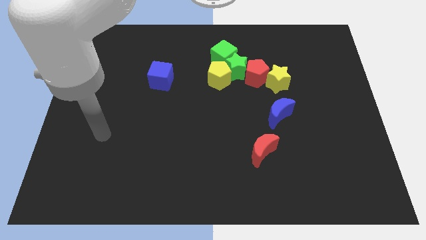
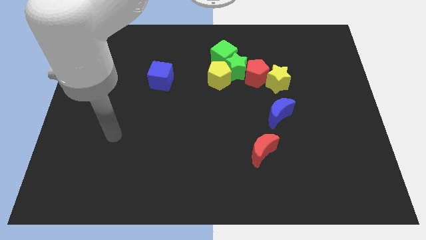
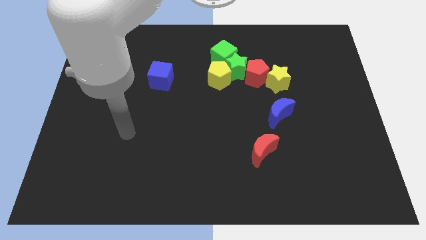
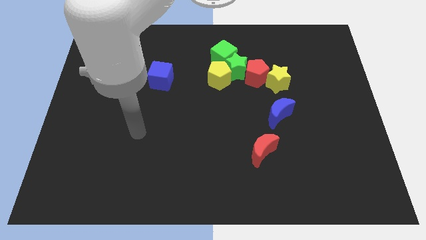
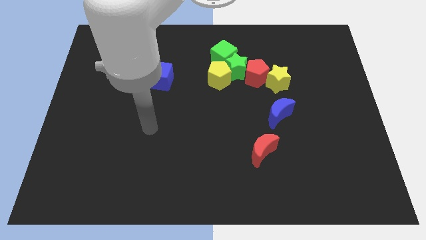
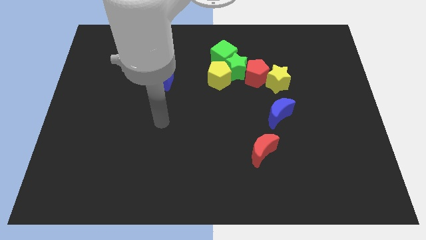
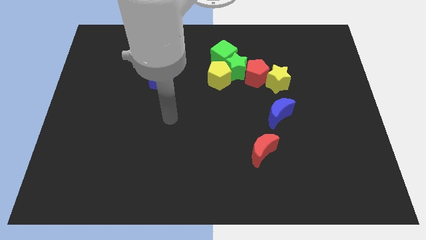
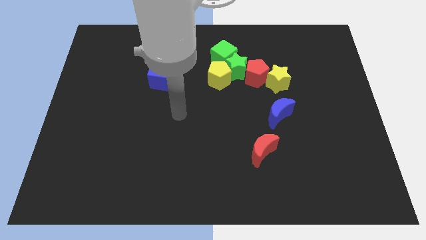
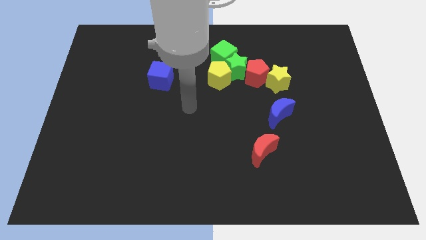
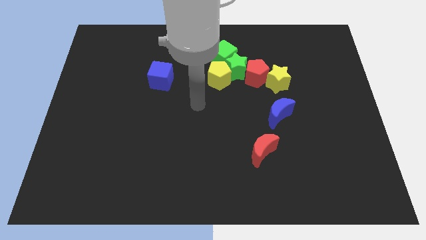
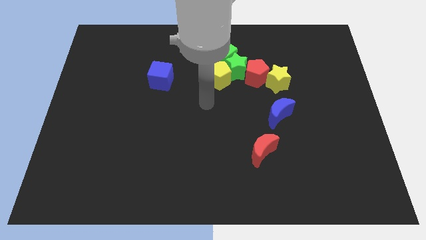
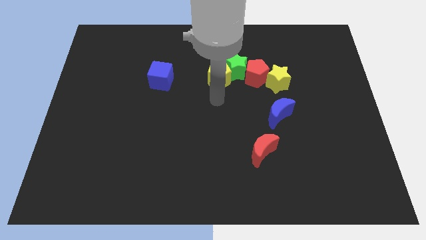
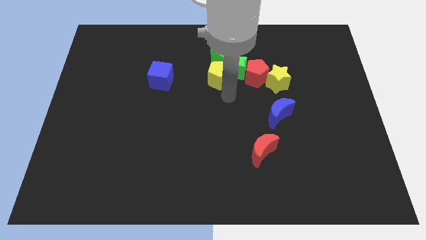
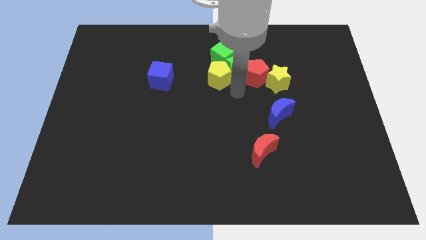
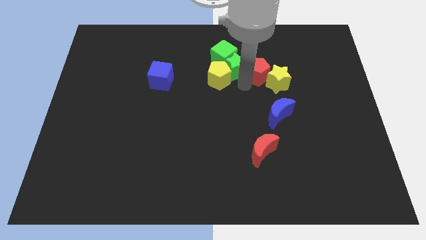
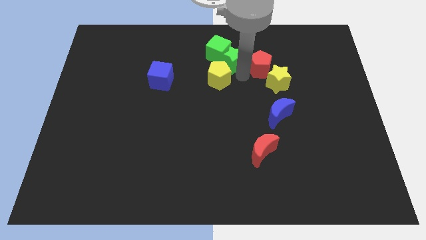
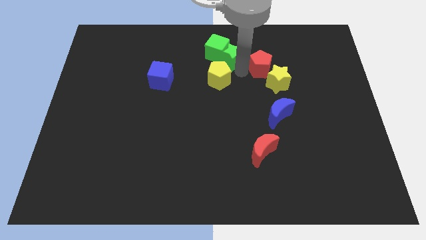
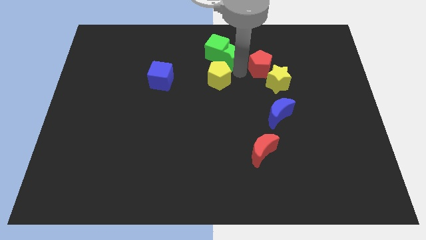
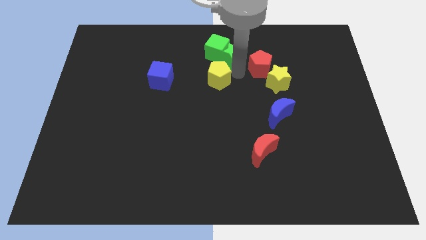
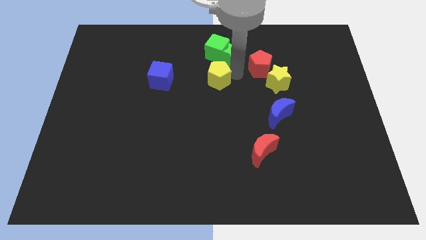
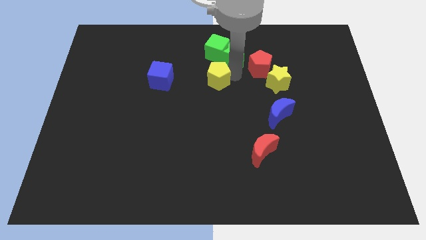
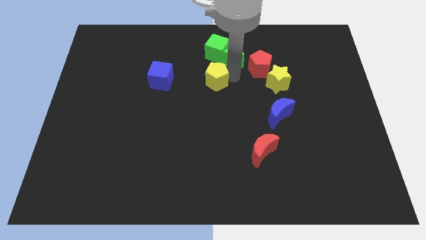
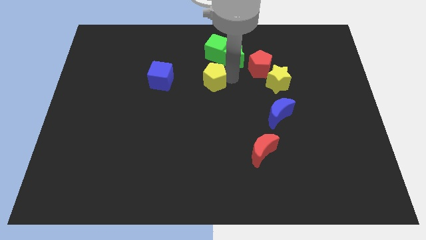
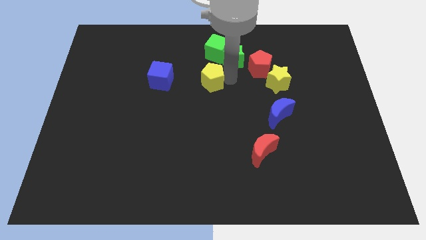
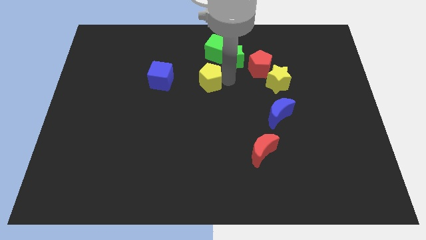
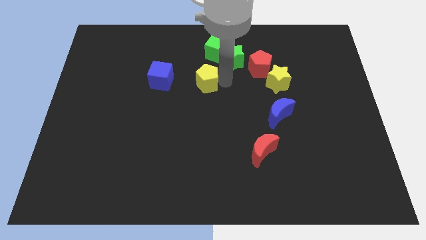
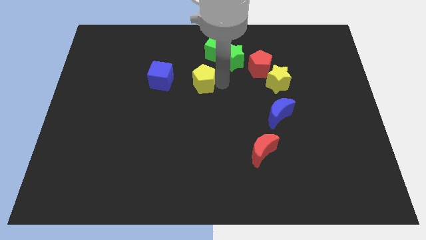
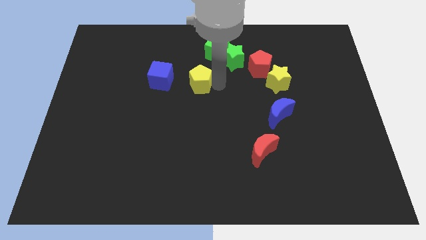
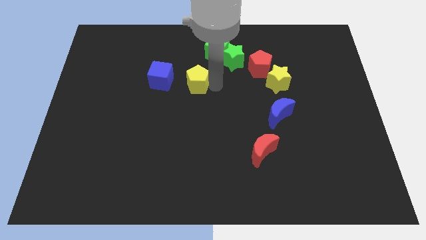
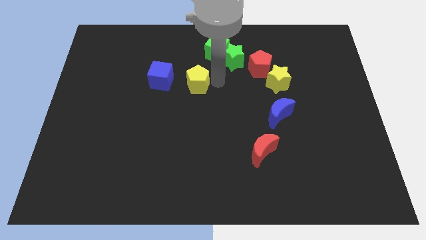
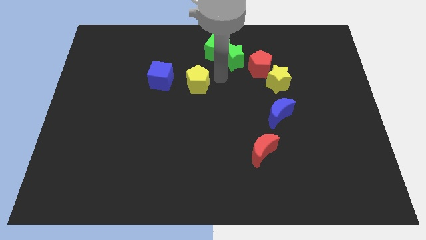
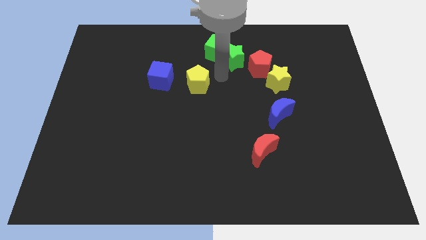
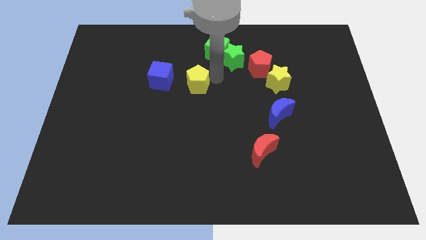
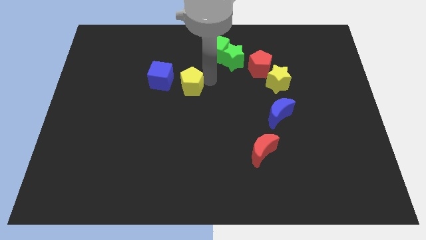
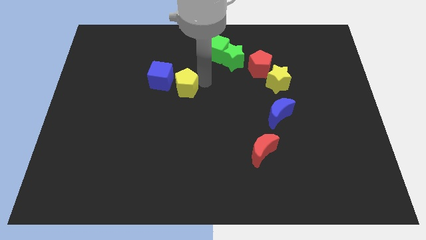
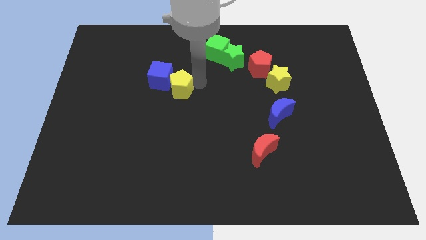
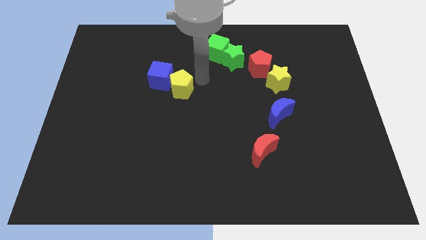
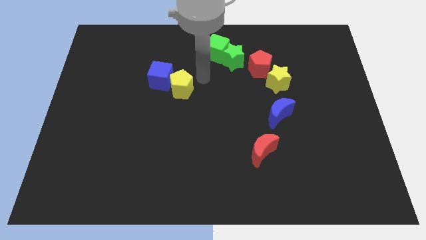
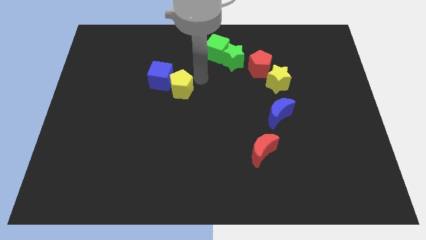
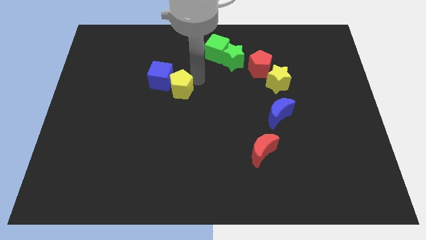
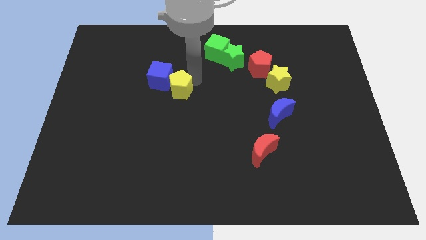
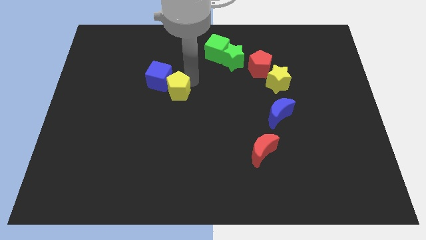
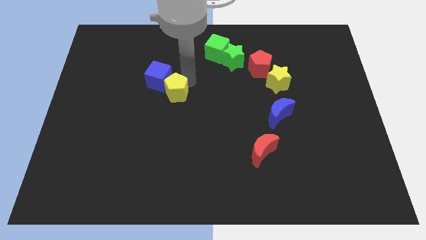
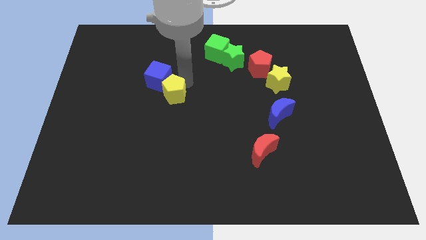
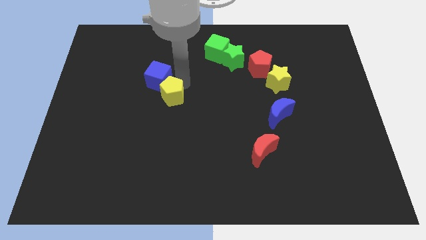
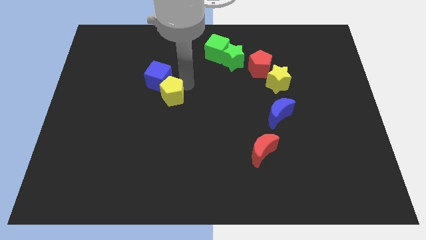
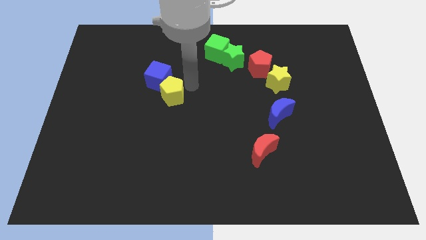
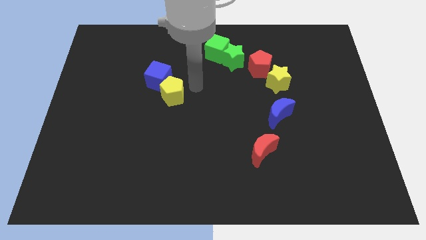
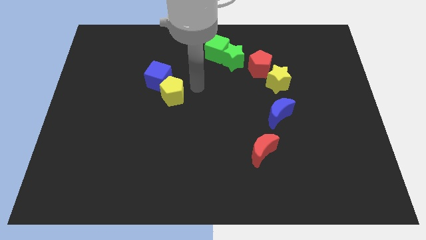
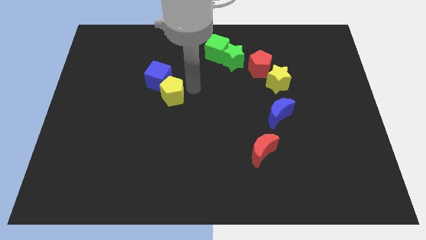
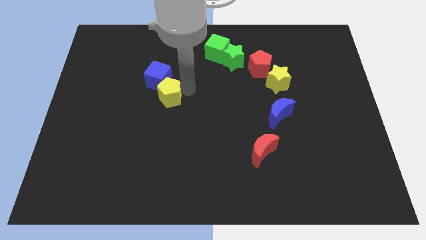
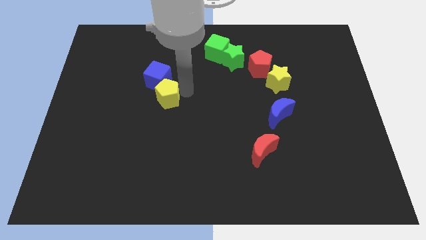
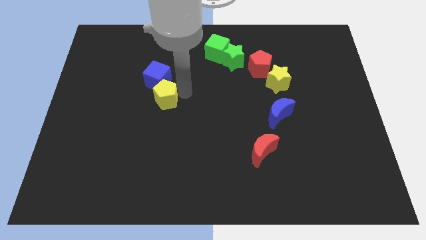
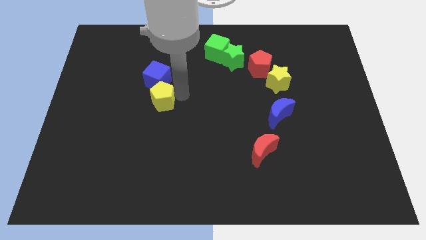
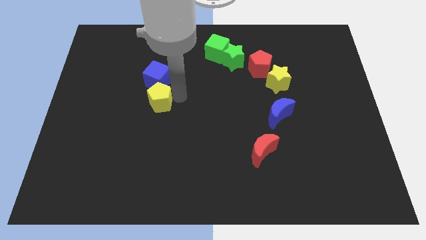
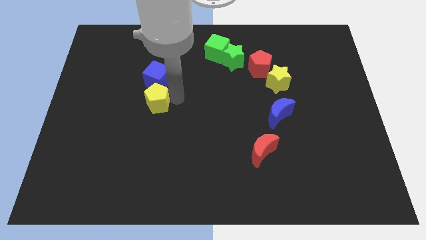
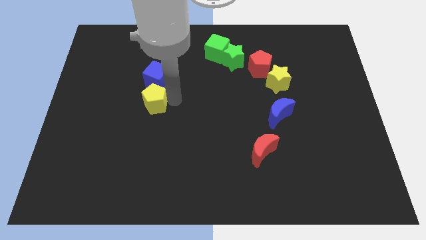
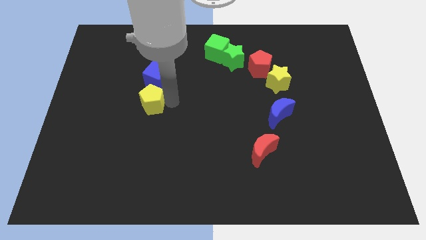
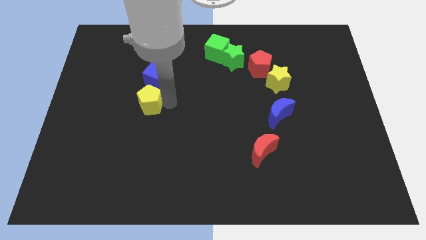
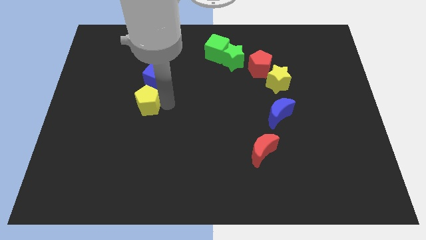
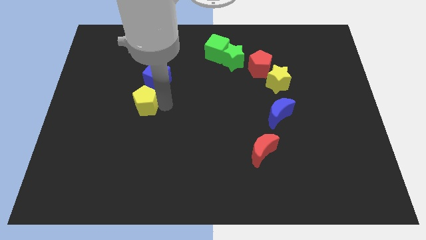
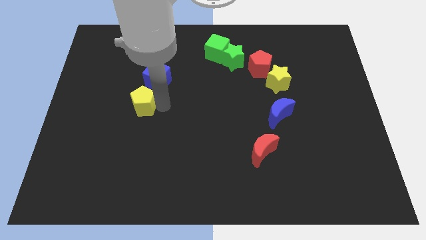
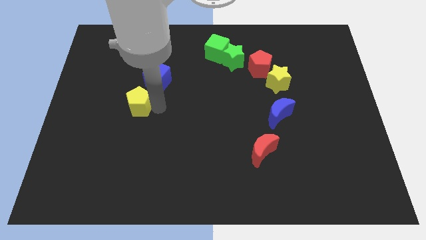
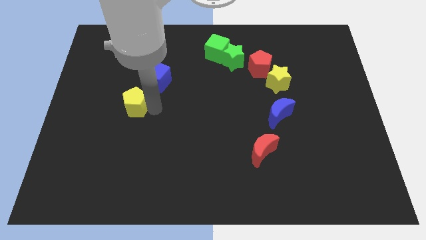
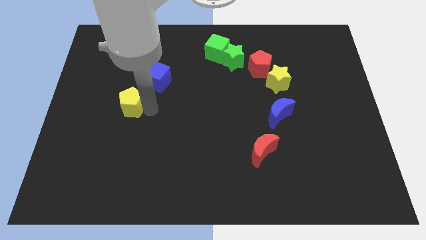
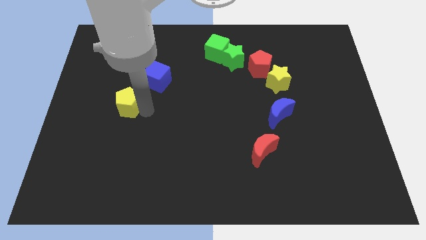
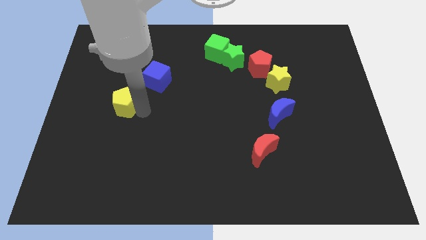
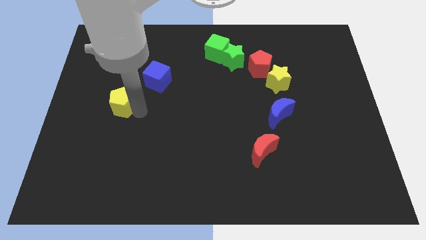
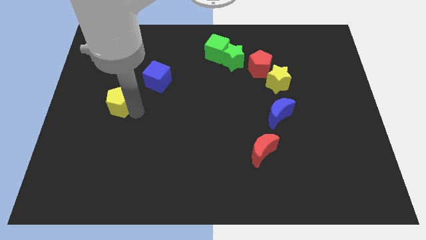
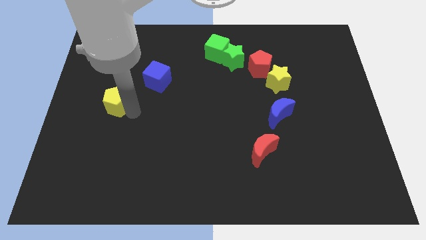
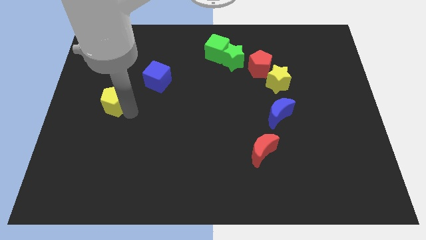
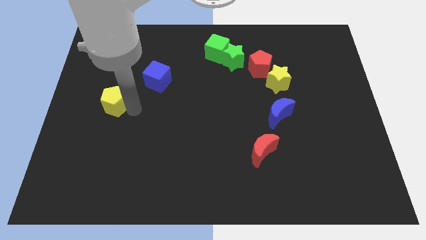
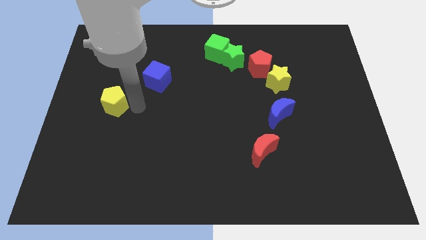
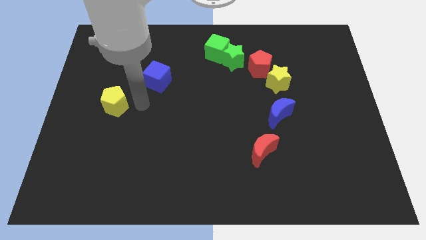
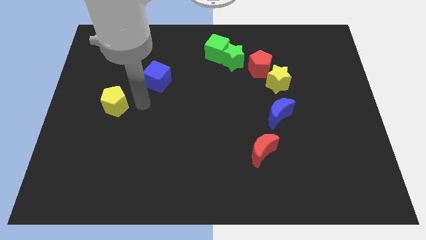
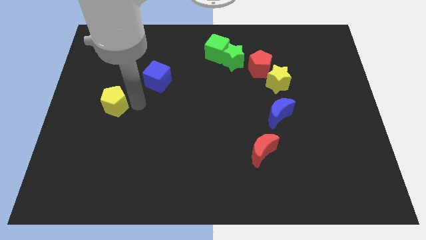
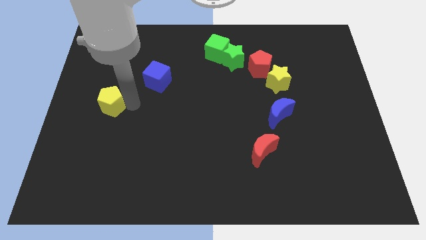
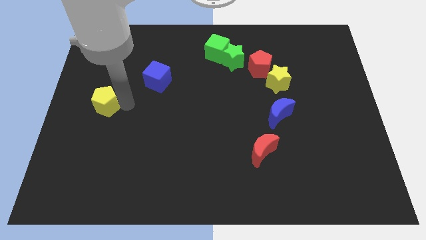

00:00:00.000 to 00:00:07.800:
slide the yellow pentagon to the left side of the board
